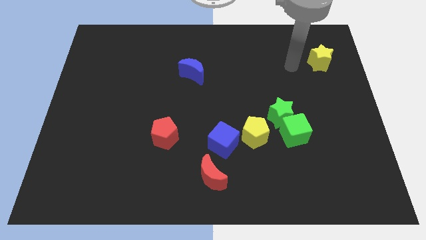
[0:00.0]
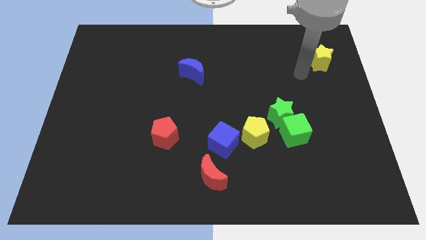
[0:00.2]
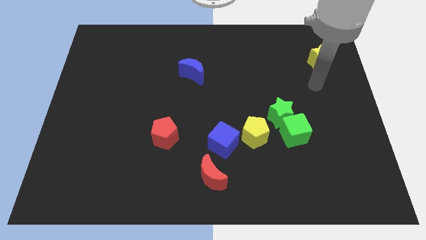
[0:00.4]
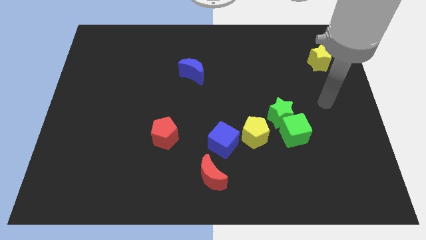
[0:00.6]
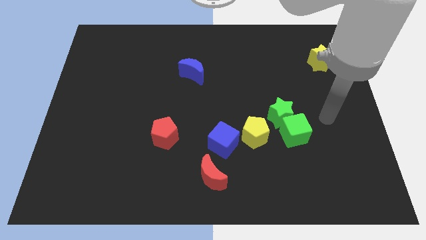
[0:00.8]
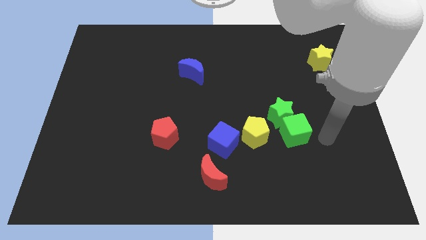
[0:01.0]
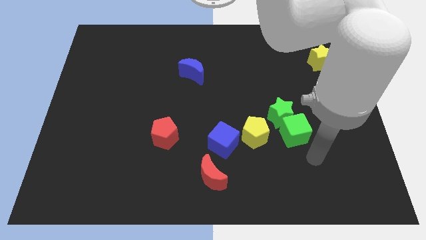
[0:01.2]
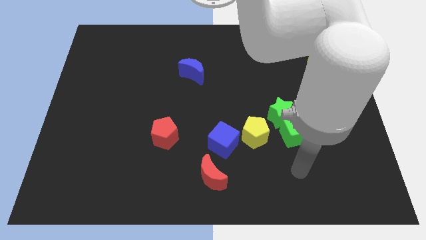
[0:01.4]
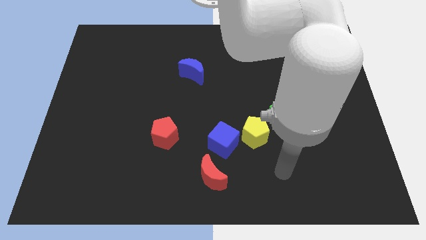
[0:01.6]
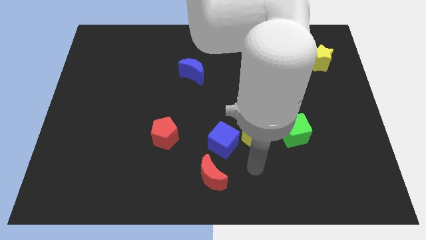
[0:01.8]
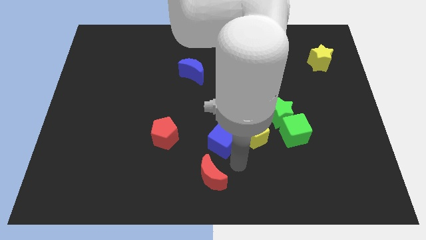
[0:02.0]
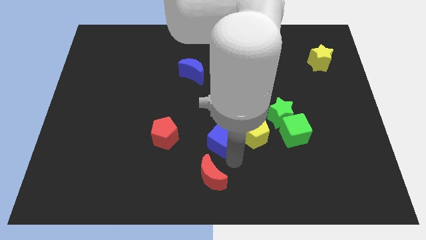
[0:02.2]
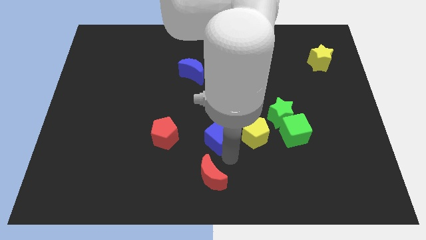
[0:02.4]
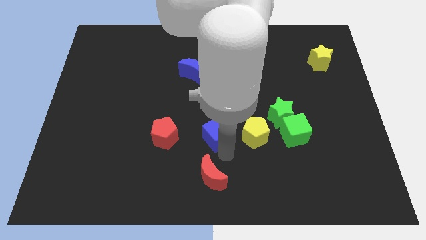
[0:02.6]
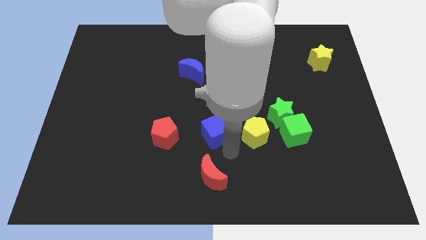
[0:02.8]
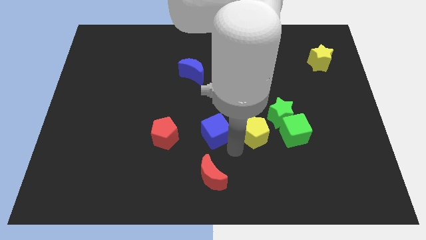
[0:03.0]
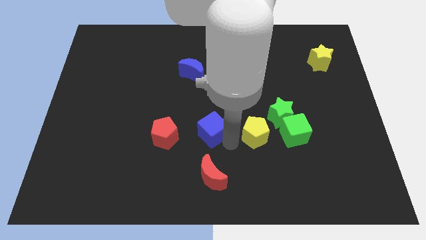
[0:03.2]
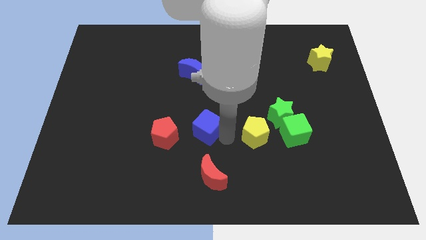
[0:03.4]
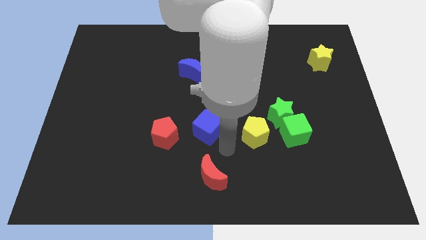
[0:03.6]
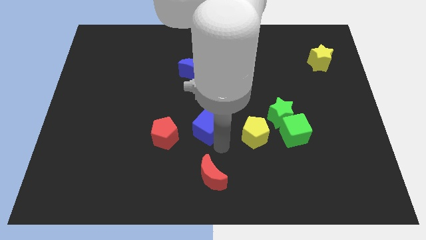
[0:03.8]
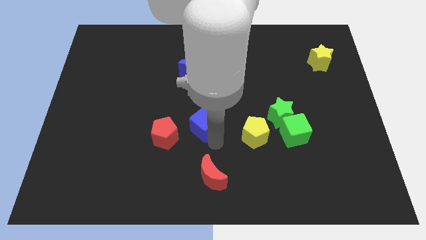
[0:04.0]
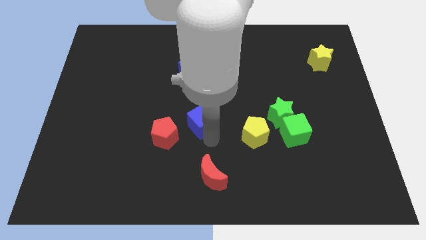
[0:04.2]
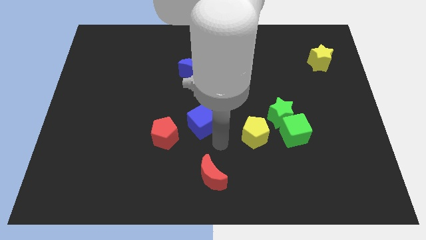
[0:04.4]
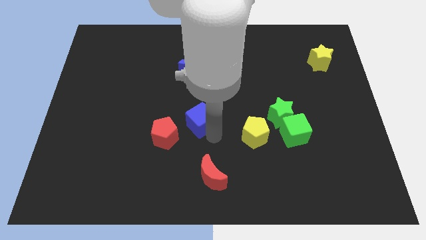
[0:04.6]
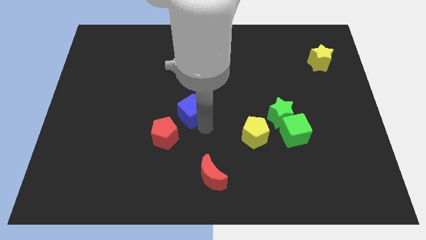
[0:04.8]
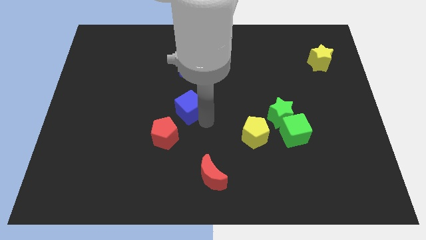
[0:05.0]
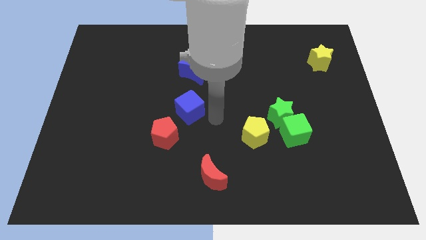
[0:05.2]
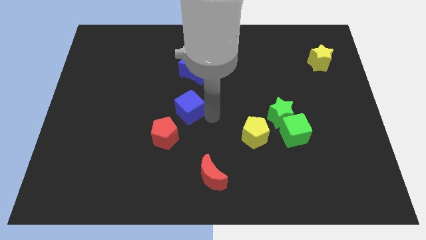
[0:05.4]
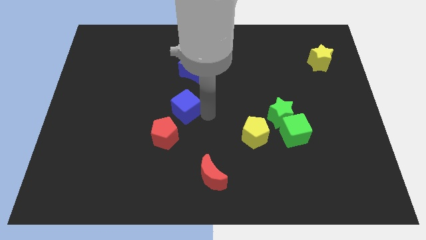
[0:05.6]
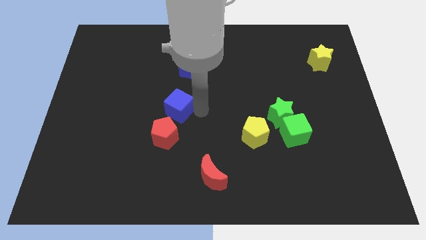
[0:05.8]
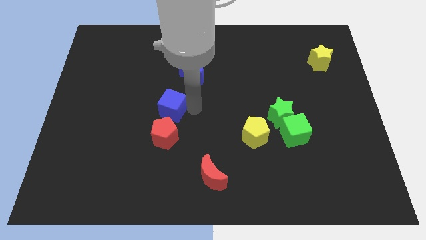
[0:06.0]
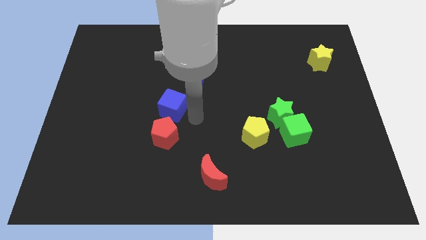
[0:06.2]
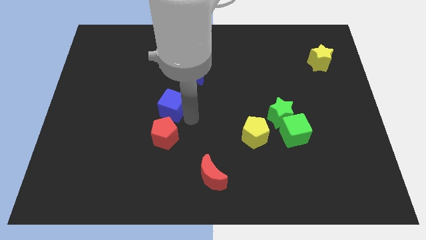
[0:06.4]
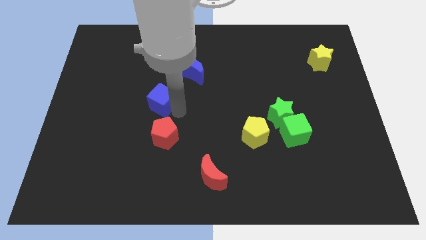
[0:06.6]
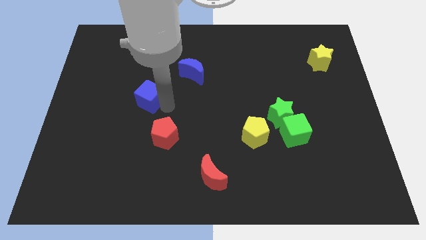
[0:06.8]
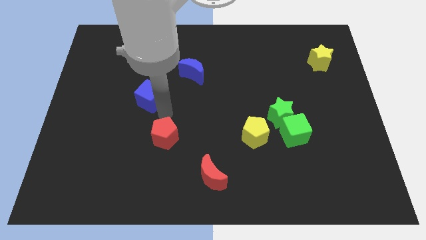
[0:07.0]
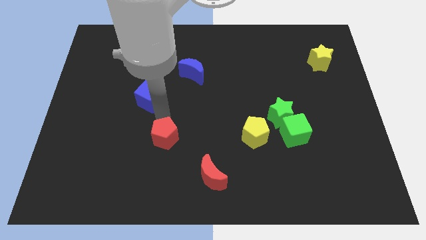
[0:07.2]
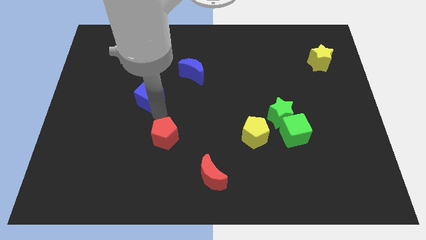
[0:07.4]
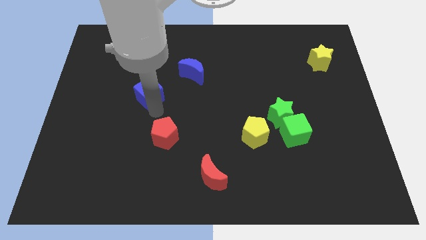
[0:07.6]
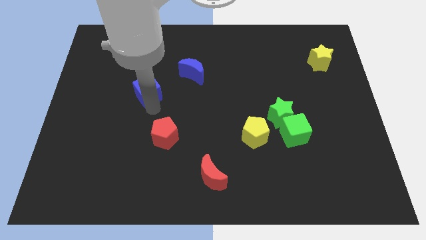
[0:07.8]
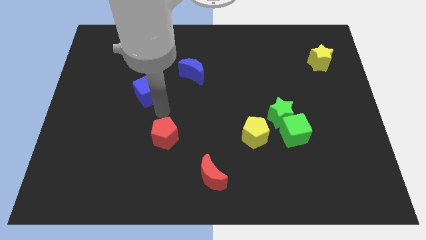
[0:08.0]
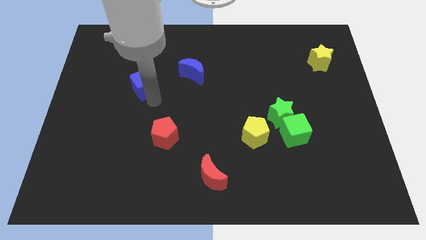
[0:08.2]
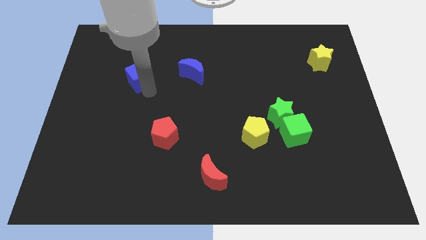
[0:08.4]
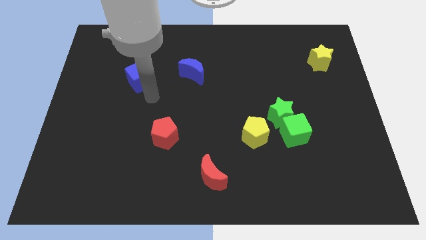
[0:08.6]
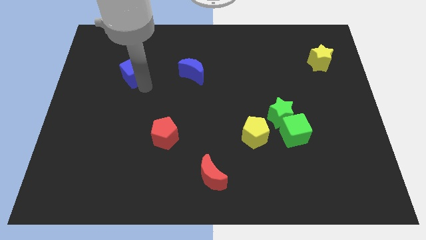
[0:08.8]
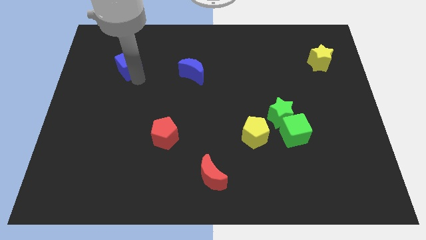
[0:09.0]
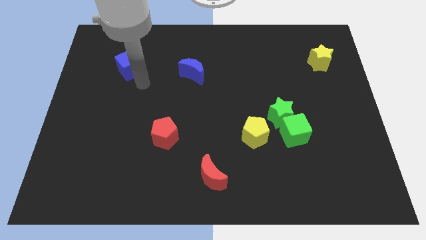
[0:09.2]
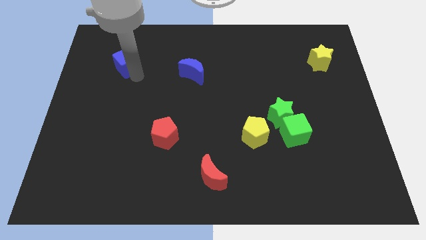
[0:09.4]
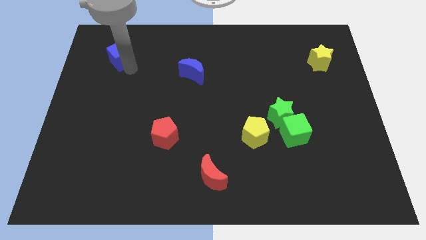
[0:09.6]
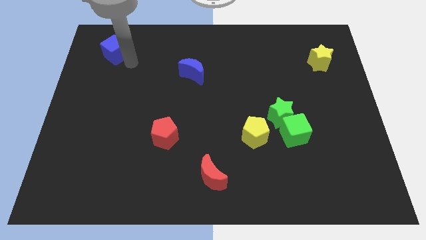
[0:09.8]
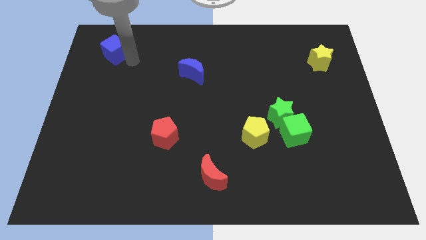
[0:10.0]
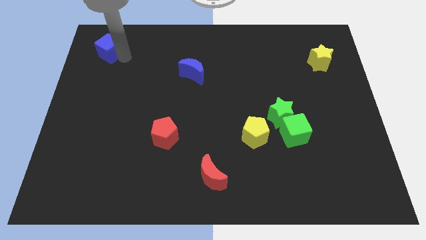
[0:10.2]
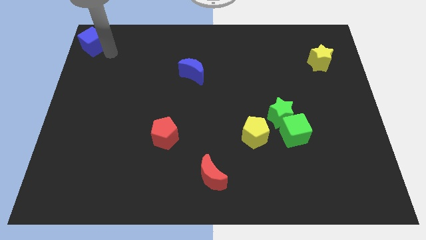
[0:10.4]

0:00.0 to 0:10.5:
move the blue cube to the top left of the board

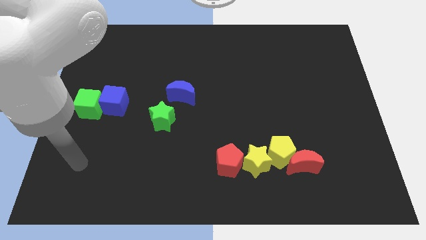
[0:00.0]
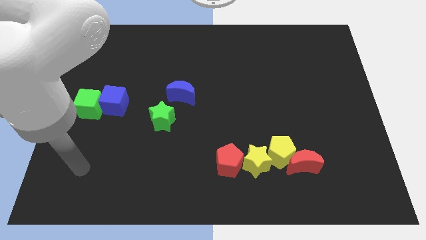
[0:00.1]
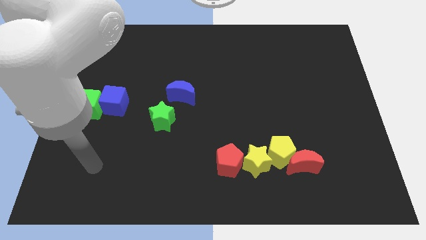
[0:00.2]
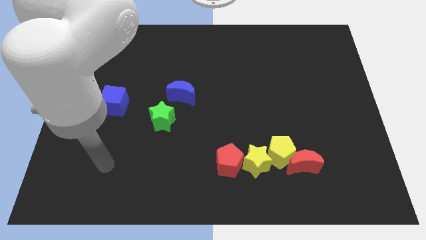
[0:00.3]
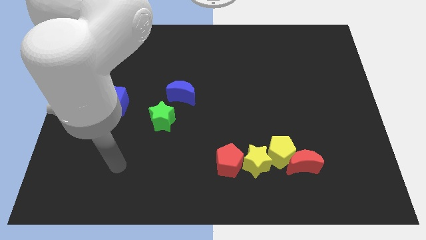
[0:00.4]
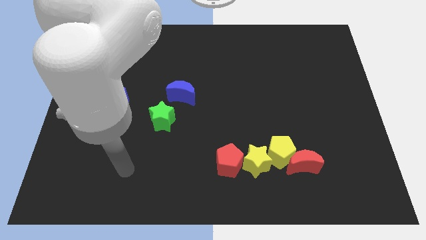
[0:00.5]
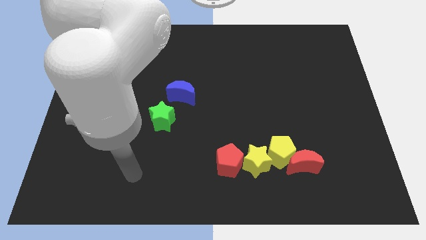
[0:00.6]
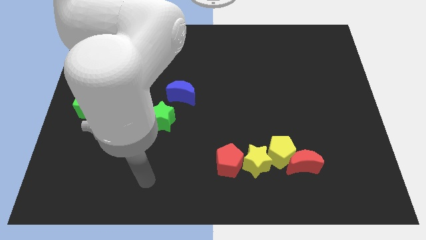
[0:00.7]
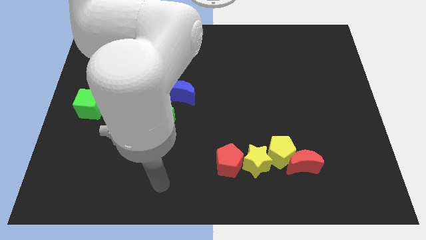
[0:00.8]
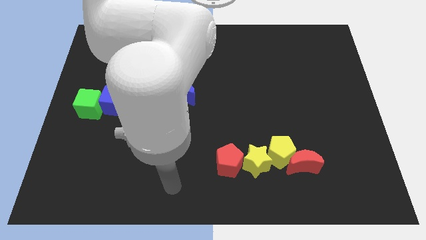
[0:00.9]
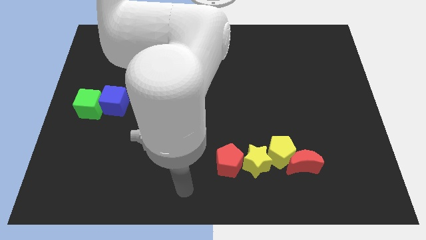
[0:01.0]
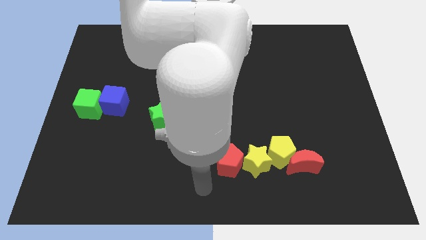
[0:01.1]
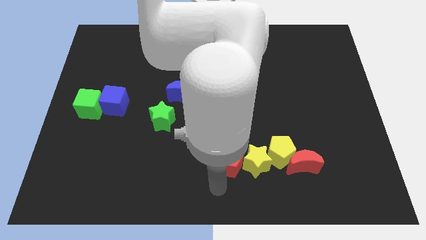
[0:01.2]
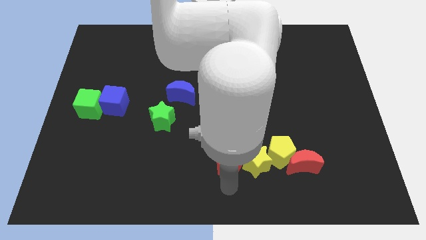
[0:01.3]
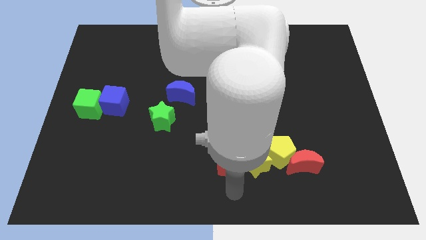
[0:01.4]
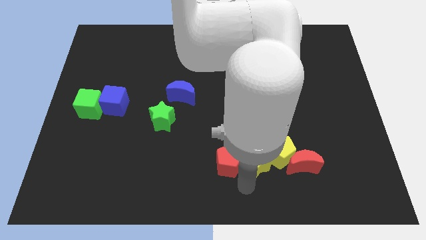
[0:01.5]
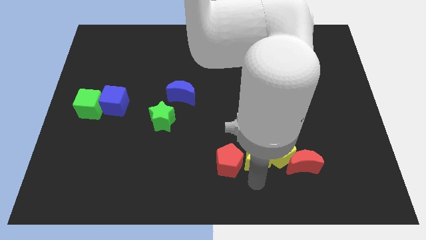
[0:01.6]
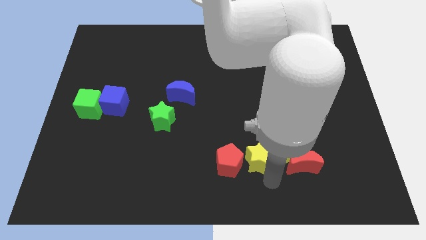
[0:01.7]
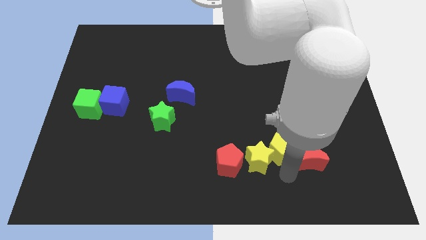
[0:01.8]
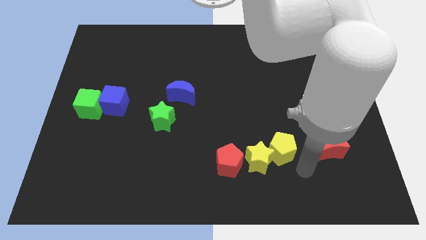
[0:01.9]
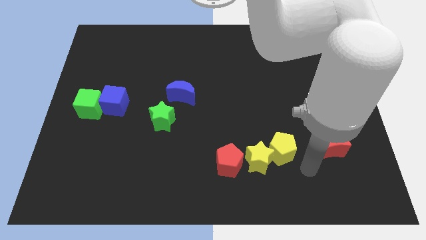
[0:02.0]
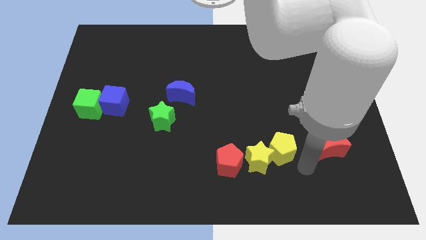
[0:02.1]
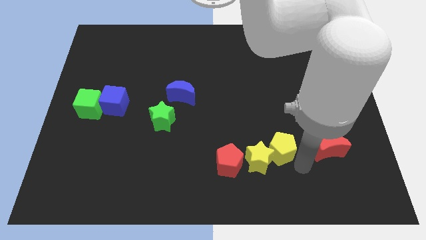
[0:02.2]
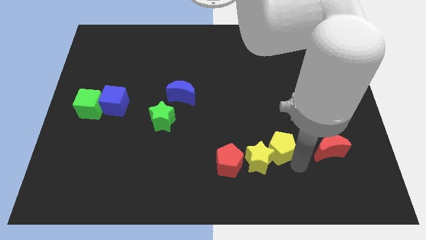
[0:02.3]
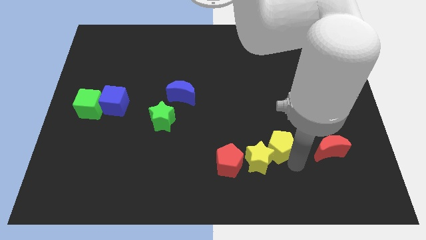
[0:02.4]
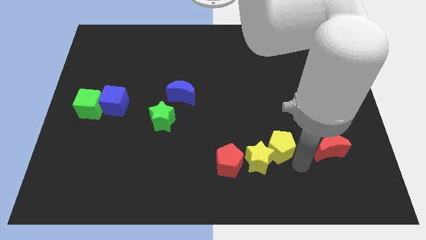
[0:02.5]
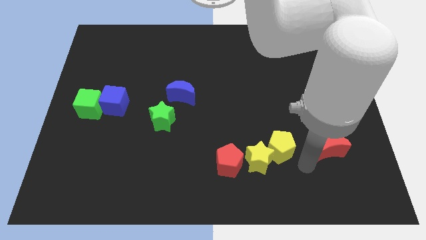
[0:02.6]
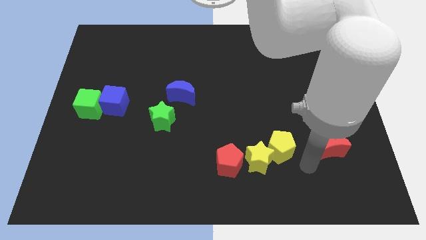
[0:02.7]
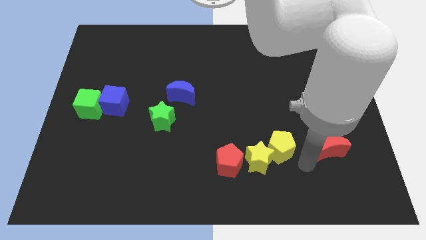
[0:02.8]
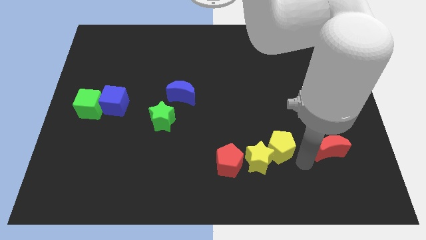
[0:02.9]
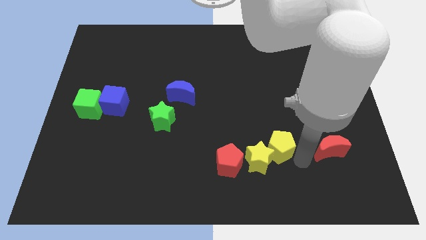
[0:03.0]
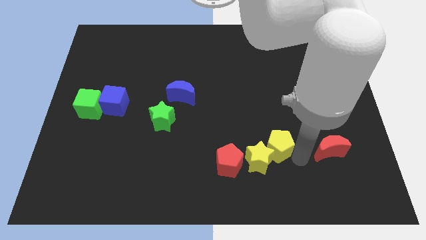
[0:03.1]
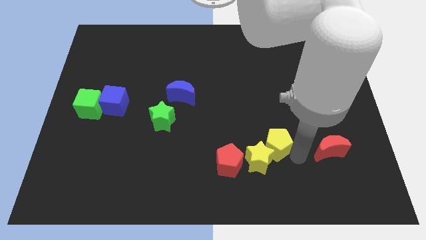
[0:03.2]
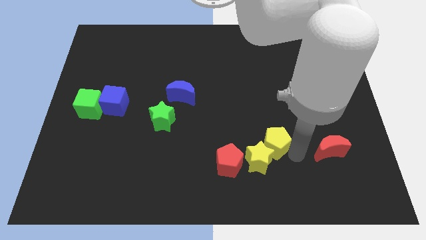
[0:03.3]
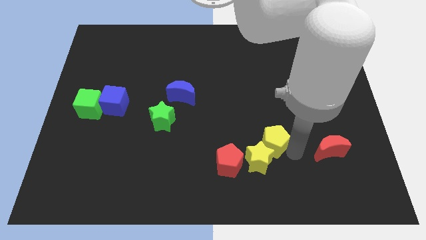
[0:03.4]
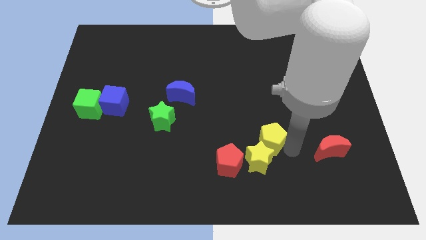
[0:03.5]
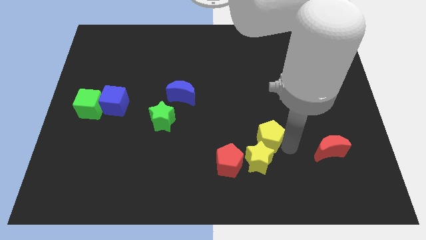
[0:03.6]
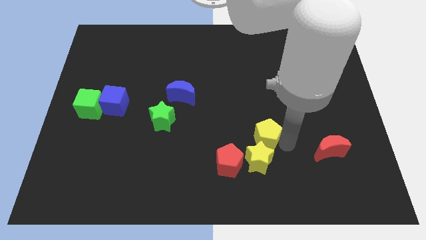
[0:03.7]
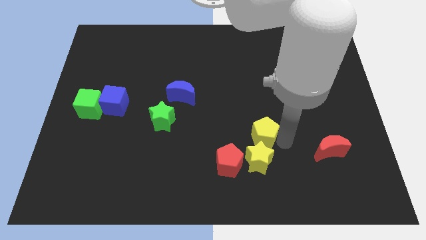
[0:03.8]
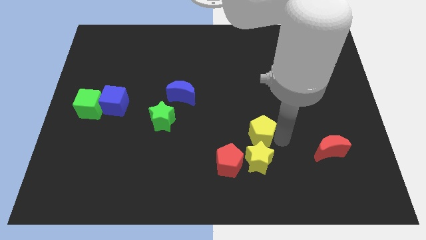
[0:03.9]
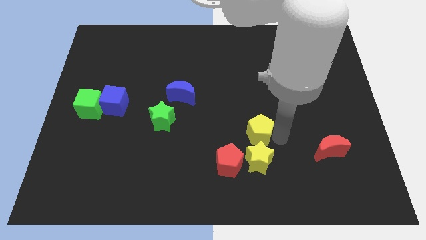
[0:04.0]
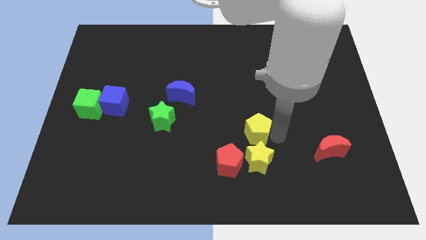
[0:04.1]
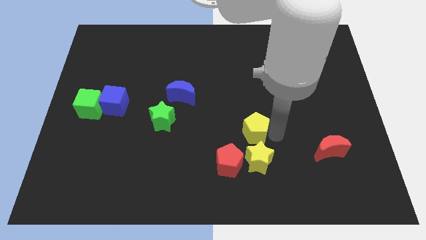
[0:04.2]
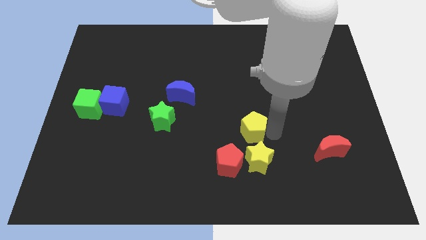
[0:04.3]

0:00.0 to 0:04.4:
slide the yellow pentagon to the center of the board
